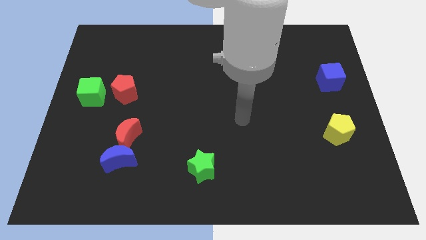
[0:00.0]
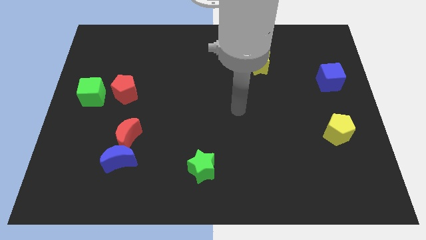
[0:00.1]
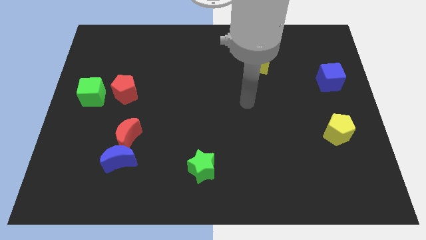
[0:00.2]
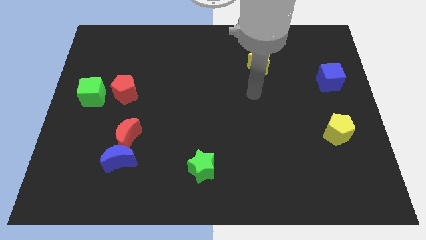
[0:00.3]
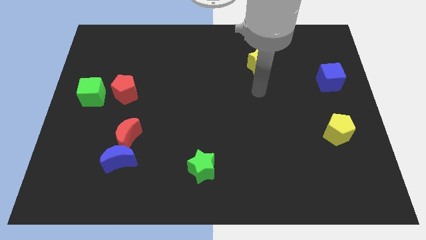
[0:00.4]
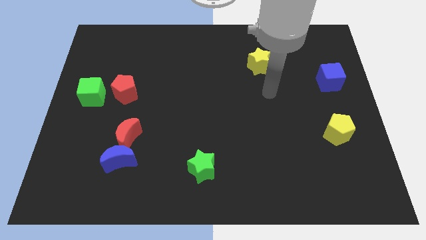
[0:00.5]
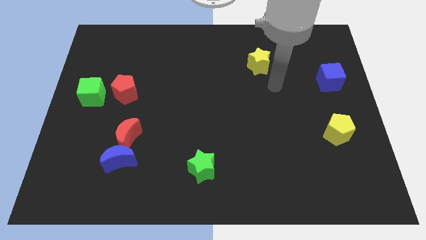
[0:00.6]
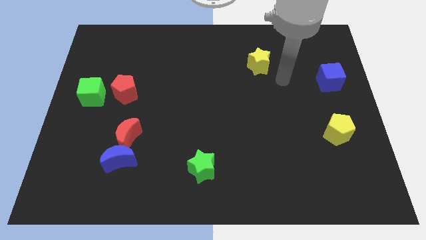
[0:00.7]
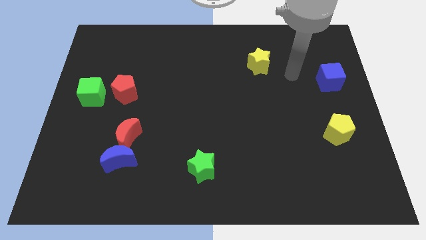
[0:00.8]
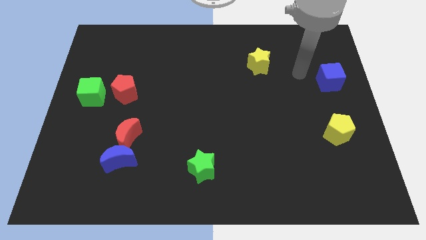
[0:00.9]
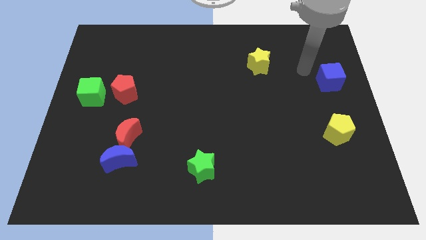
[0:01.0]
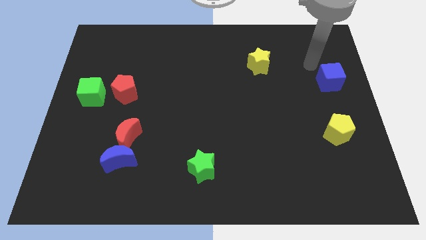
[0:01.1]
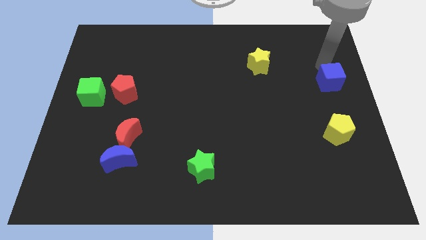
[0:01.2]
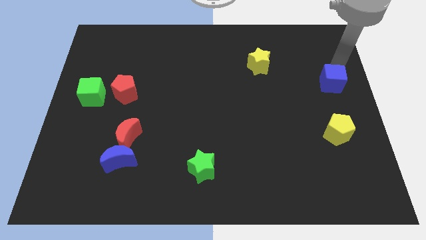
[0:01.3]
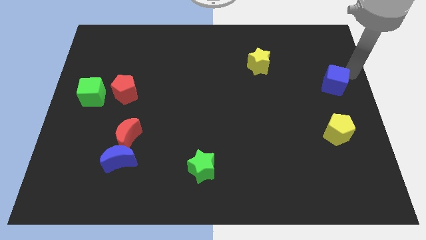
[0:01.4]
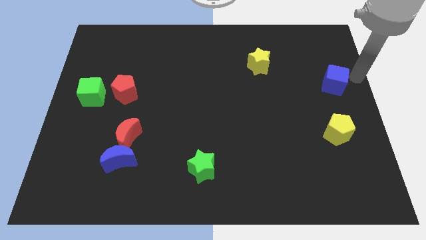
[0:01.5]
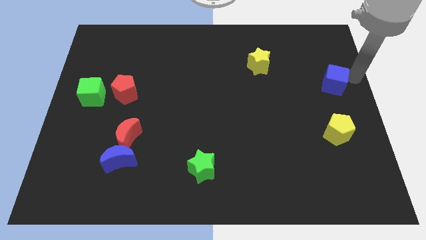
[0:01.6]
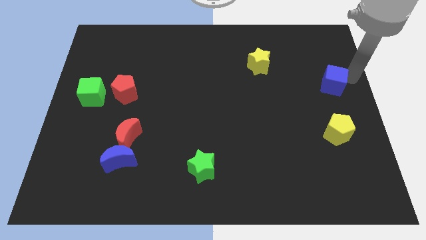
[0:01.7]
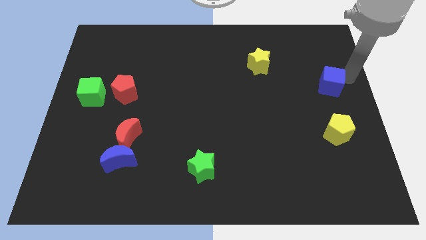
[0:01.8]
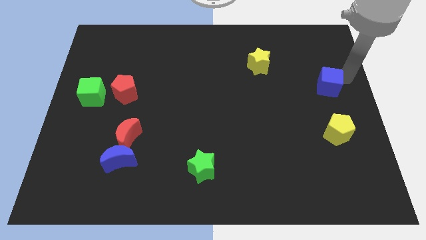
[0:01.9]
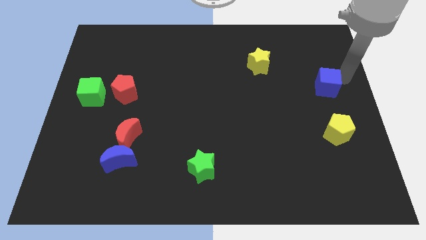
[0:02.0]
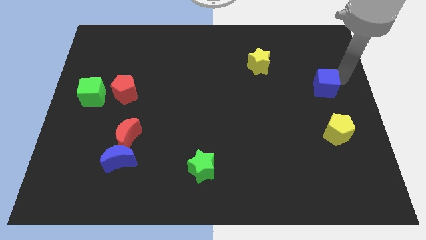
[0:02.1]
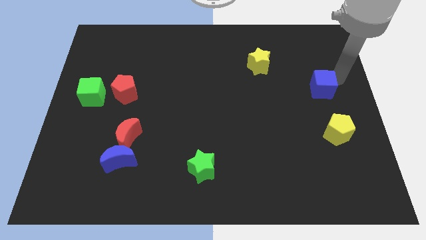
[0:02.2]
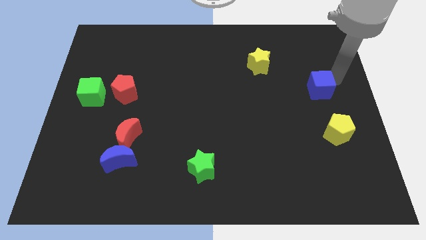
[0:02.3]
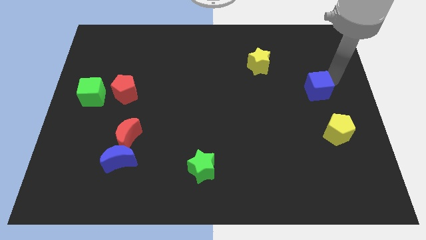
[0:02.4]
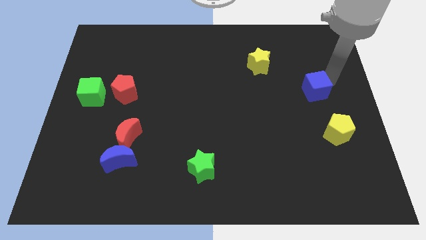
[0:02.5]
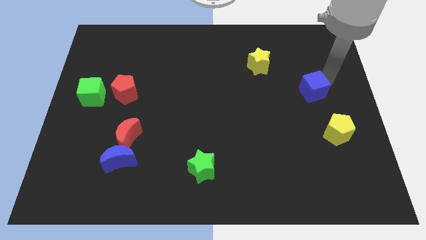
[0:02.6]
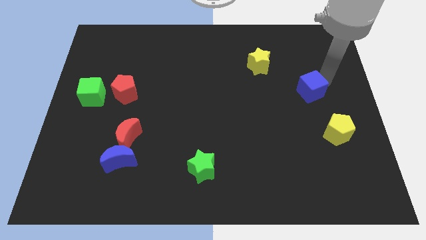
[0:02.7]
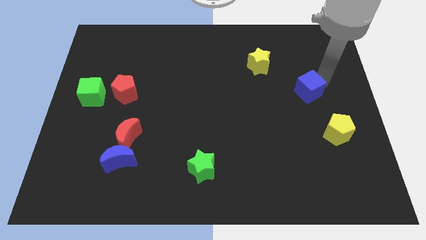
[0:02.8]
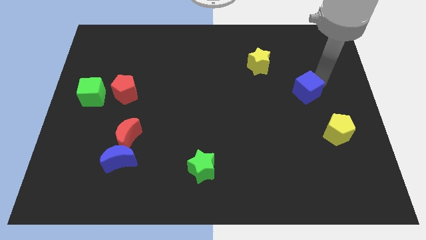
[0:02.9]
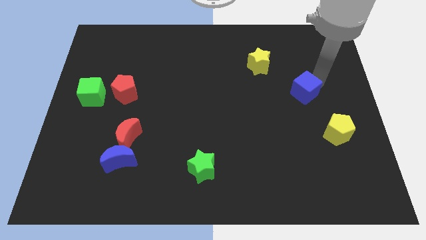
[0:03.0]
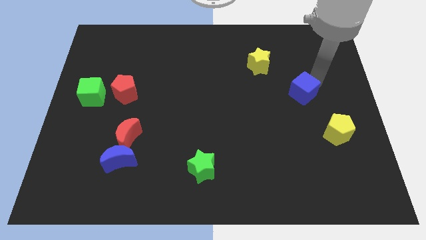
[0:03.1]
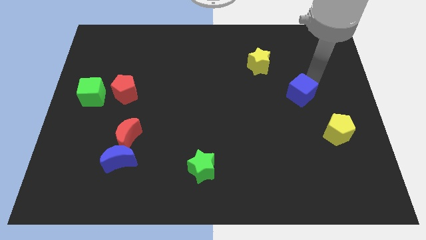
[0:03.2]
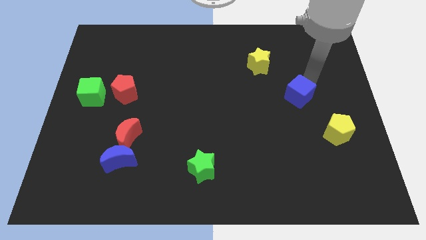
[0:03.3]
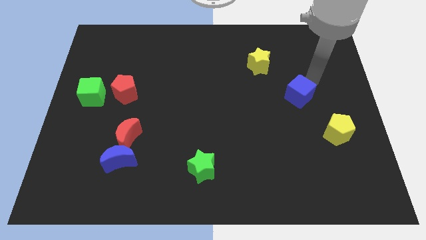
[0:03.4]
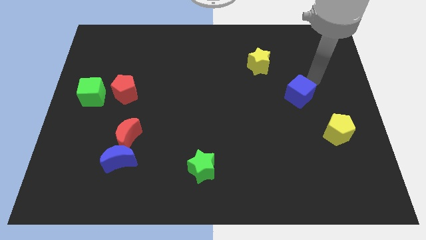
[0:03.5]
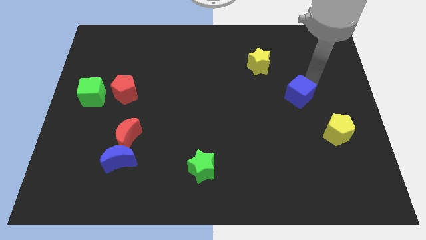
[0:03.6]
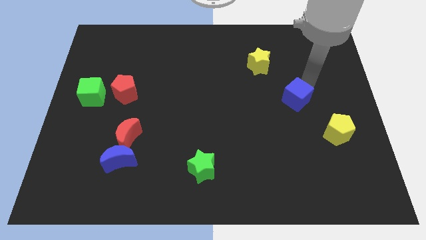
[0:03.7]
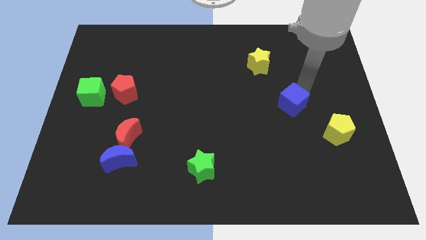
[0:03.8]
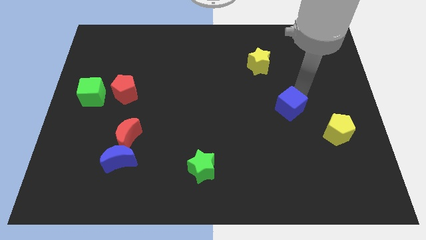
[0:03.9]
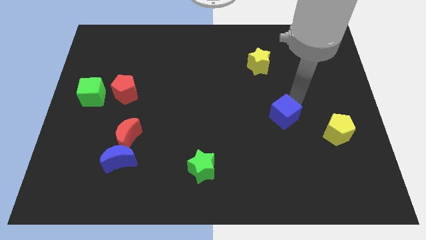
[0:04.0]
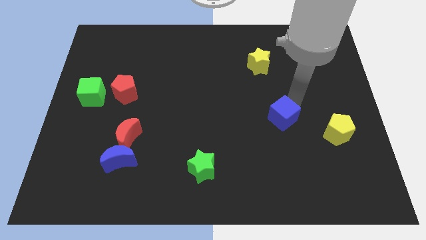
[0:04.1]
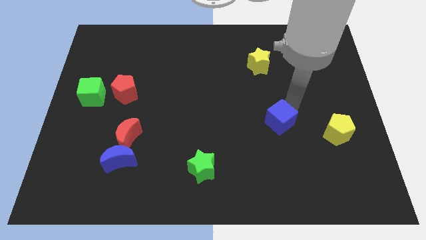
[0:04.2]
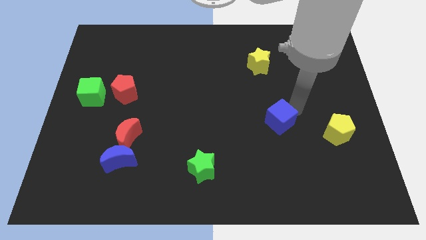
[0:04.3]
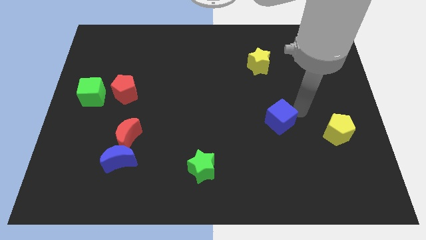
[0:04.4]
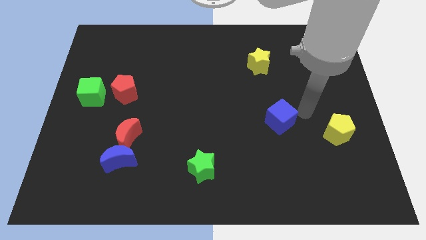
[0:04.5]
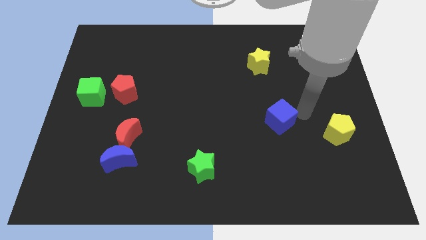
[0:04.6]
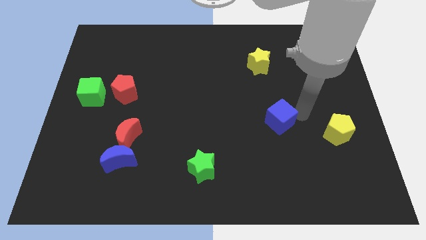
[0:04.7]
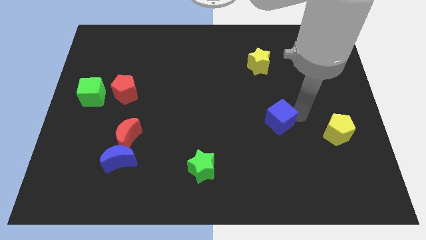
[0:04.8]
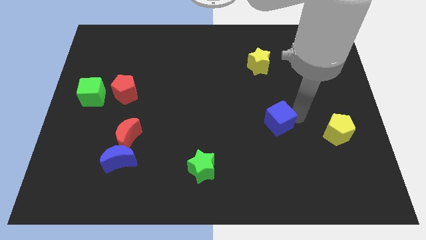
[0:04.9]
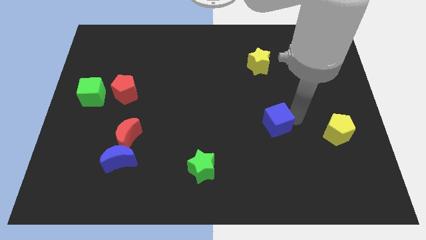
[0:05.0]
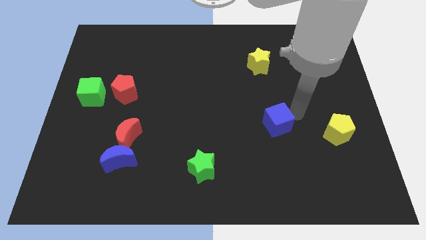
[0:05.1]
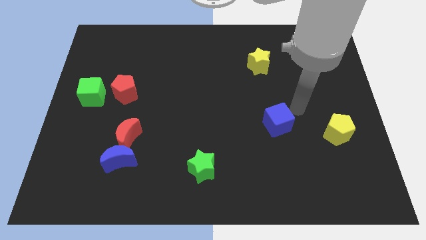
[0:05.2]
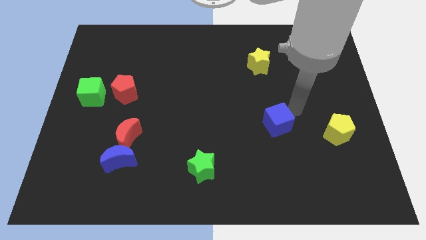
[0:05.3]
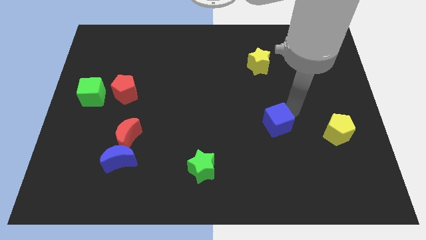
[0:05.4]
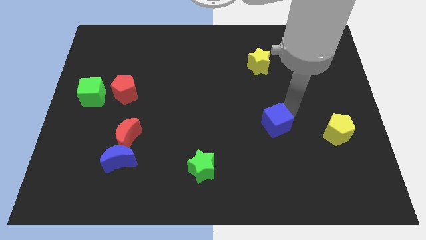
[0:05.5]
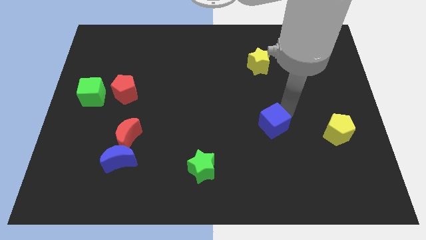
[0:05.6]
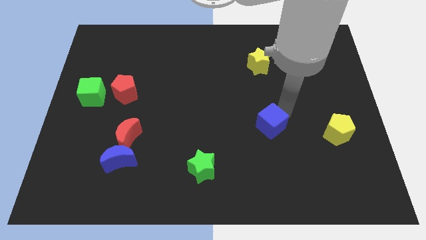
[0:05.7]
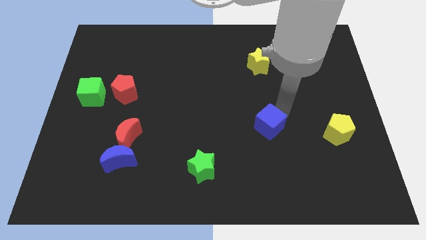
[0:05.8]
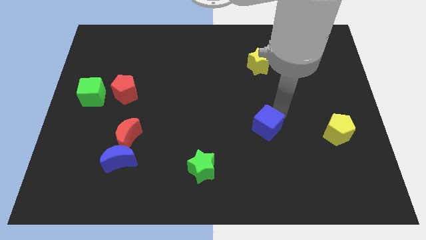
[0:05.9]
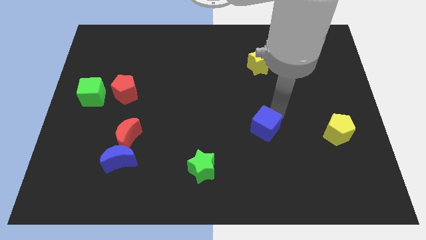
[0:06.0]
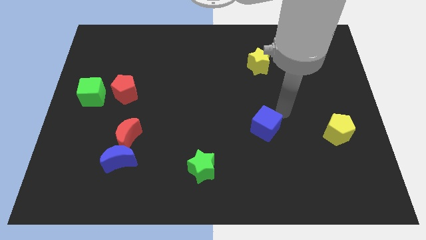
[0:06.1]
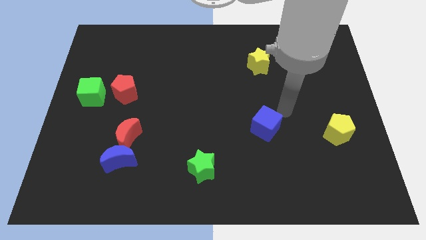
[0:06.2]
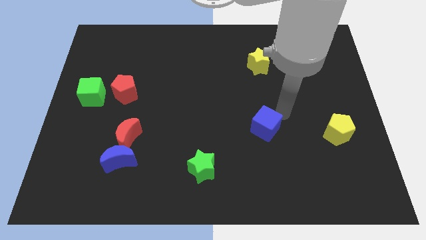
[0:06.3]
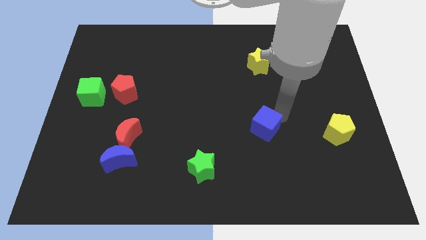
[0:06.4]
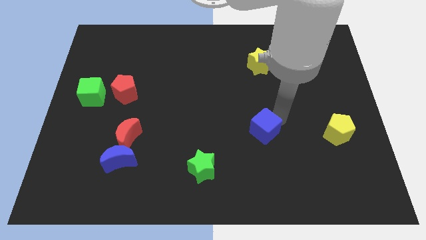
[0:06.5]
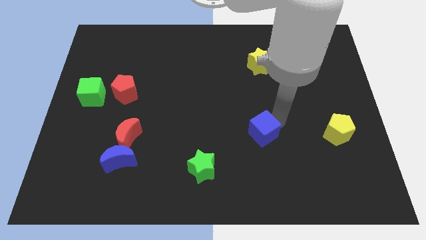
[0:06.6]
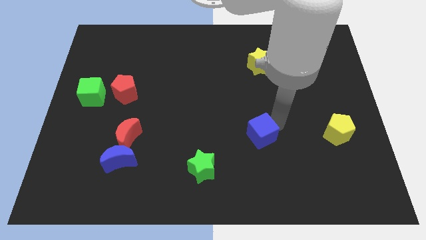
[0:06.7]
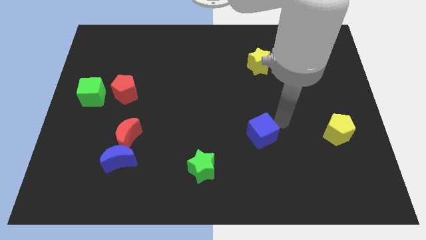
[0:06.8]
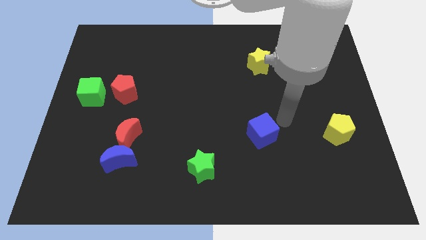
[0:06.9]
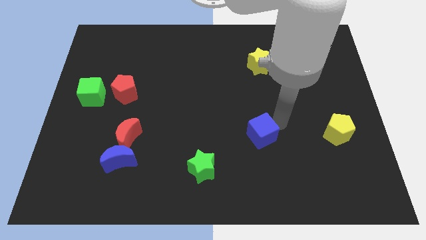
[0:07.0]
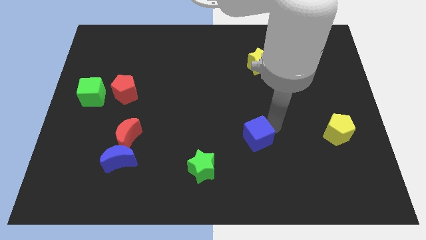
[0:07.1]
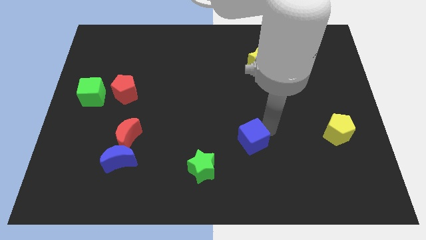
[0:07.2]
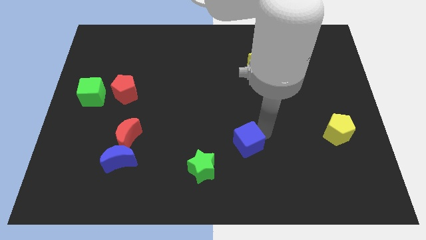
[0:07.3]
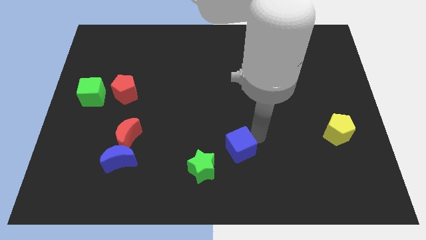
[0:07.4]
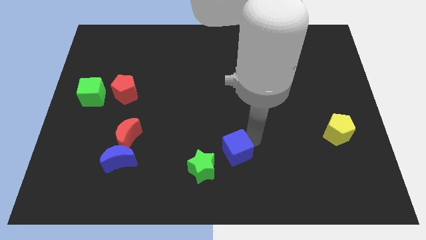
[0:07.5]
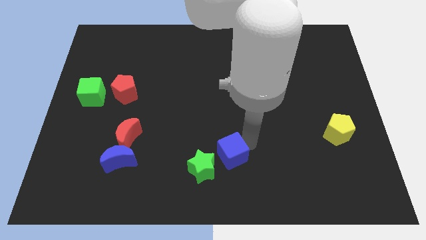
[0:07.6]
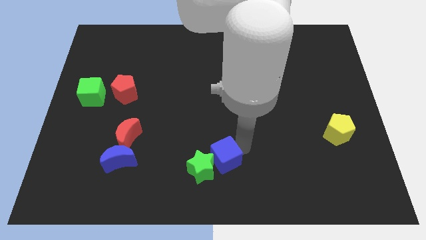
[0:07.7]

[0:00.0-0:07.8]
slide the blue cube to the green star
